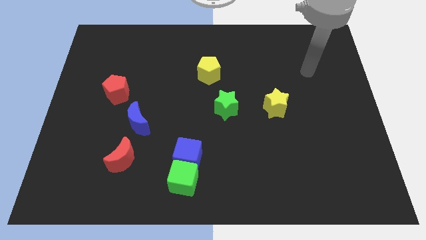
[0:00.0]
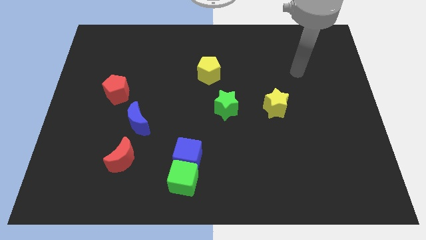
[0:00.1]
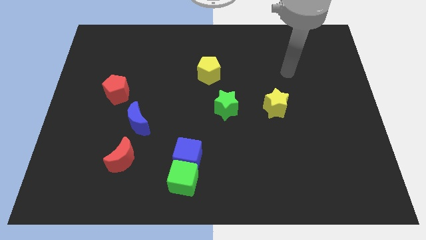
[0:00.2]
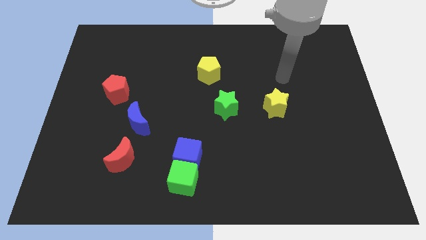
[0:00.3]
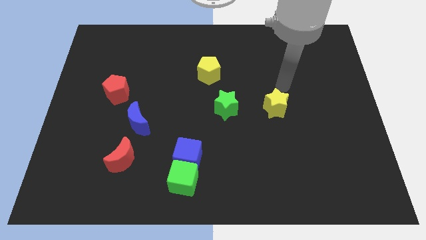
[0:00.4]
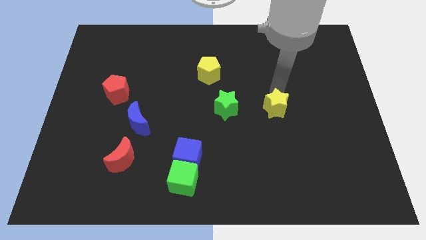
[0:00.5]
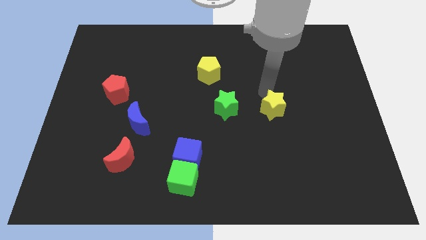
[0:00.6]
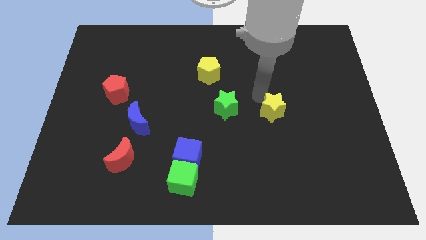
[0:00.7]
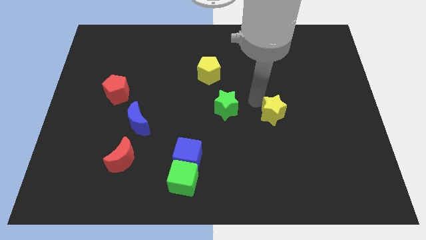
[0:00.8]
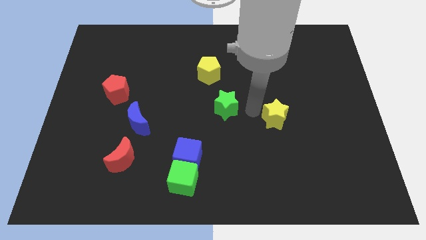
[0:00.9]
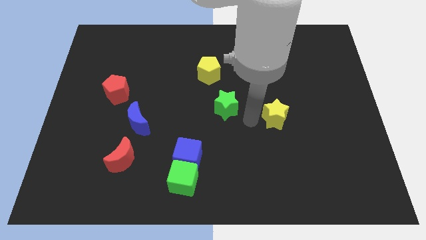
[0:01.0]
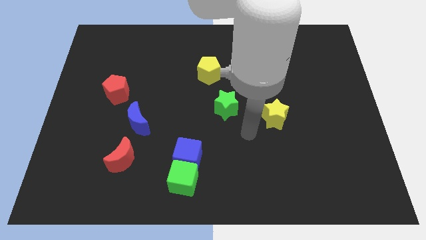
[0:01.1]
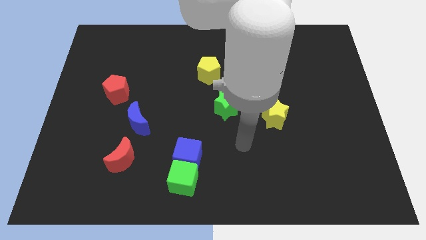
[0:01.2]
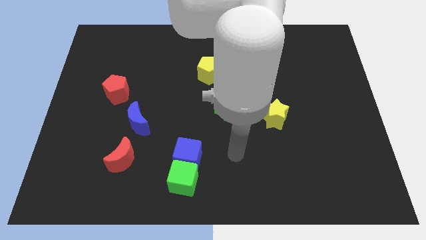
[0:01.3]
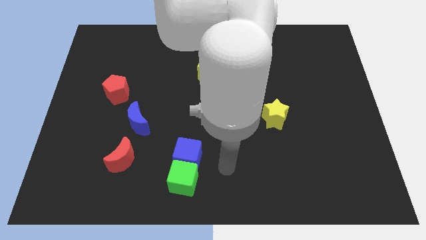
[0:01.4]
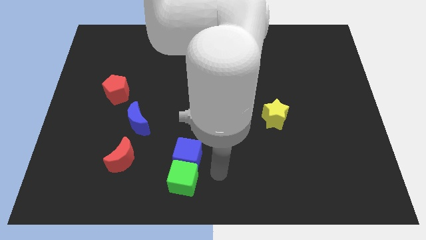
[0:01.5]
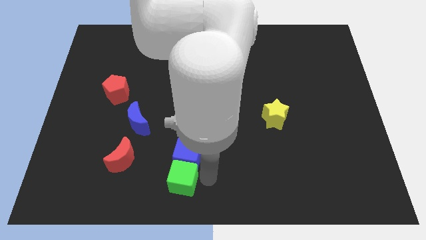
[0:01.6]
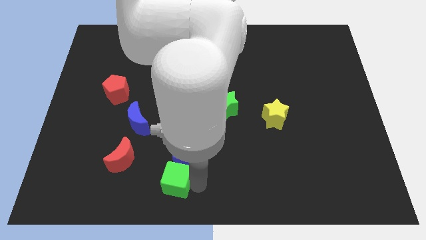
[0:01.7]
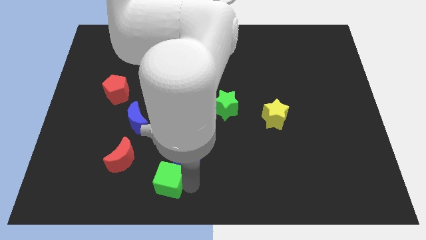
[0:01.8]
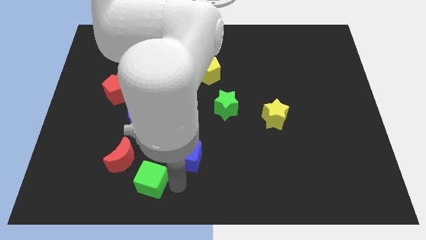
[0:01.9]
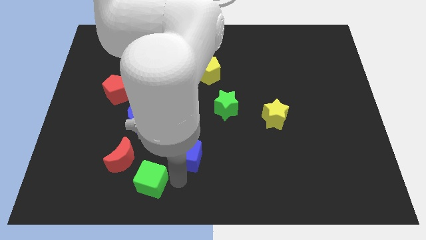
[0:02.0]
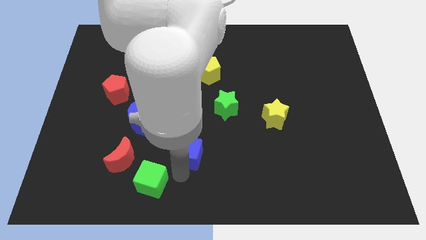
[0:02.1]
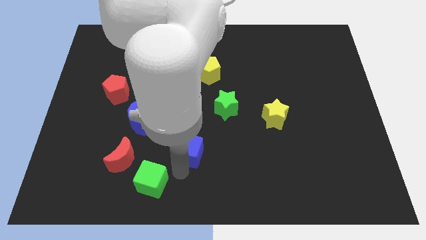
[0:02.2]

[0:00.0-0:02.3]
separate the blue cube from the green cube

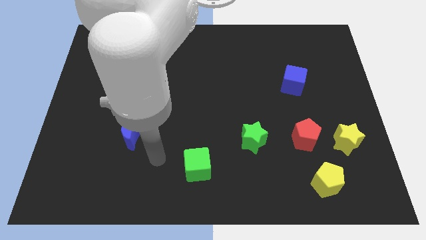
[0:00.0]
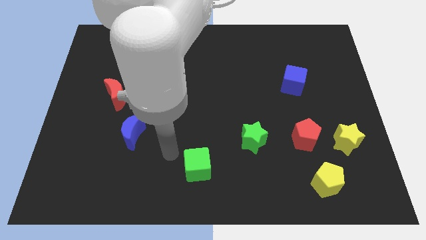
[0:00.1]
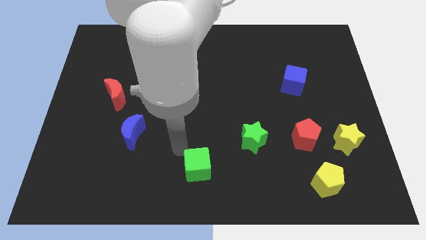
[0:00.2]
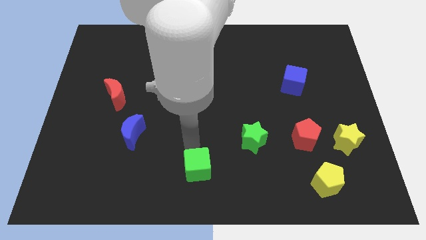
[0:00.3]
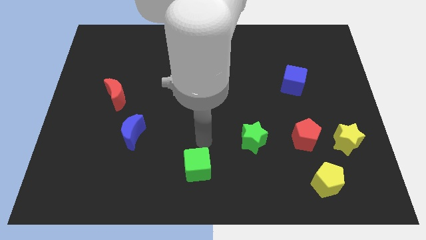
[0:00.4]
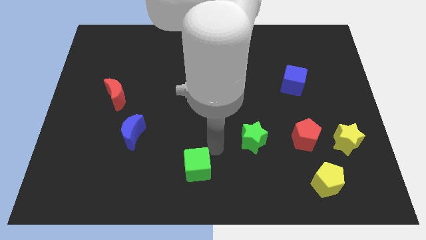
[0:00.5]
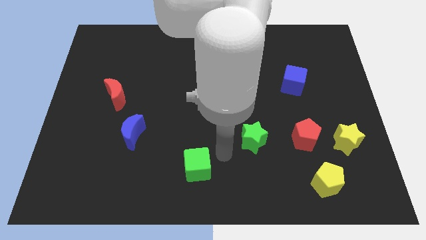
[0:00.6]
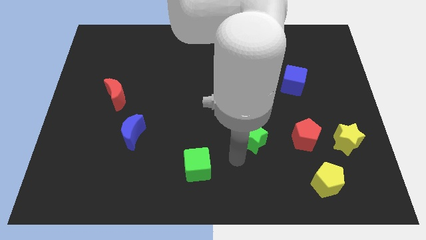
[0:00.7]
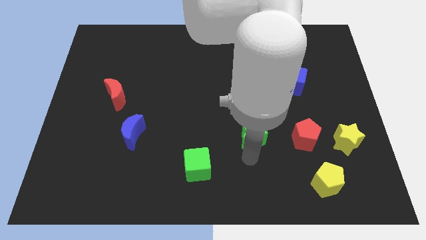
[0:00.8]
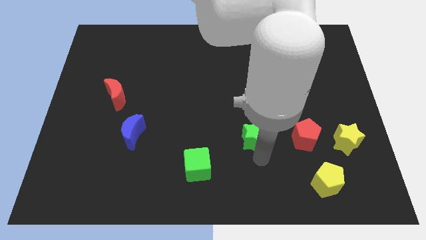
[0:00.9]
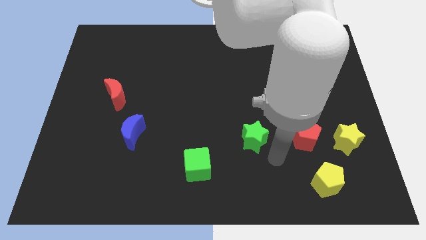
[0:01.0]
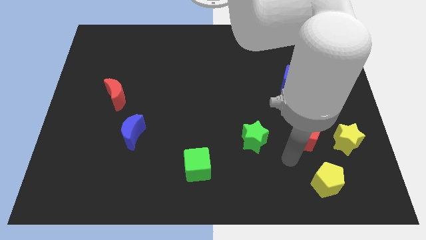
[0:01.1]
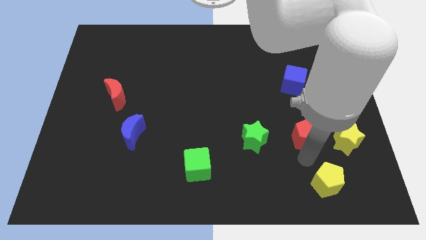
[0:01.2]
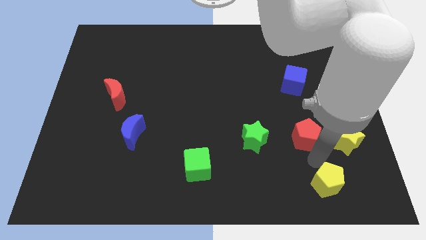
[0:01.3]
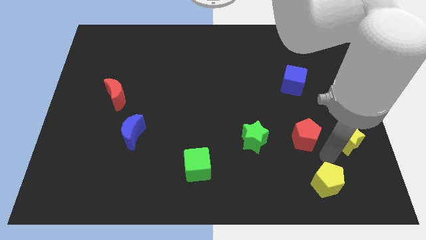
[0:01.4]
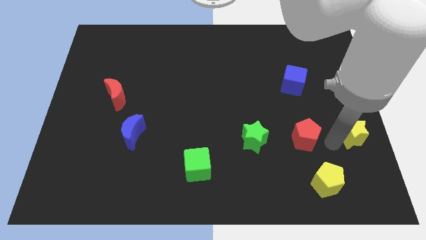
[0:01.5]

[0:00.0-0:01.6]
pull the red pentagon apart from the yellow star

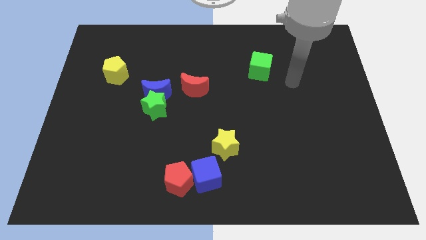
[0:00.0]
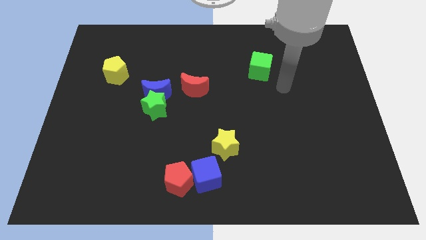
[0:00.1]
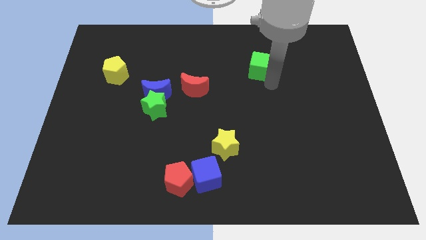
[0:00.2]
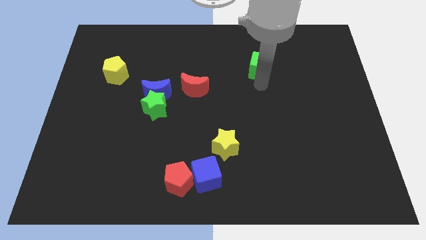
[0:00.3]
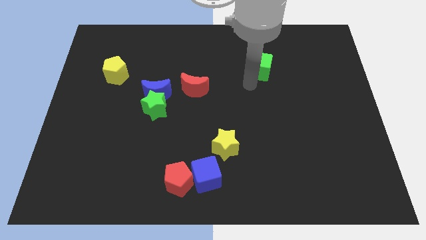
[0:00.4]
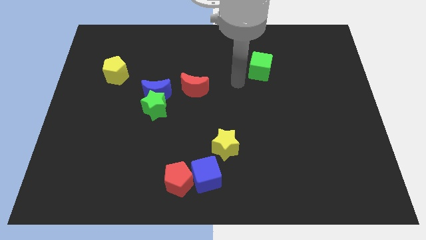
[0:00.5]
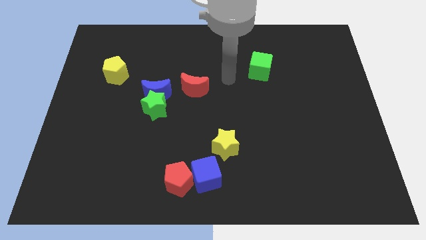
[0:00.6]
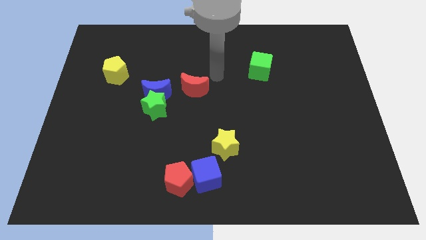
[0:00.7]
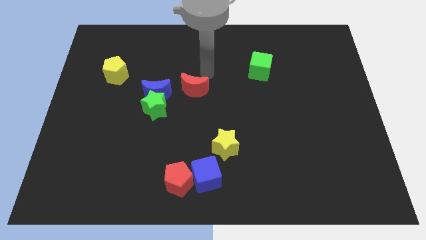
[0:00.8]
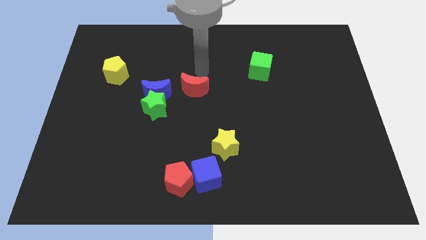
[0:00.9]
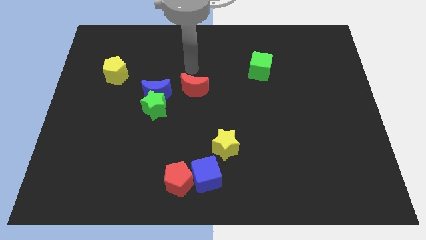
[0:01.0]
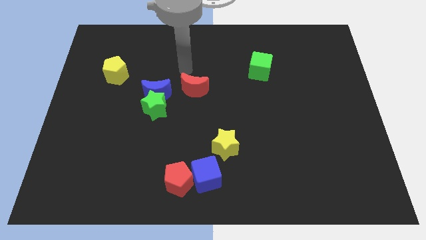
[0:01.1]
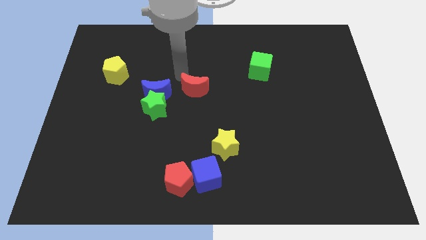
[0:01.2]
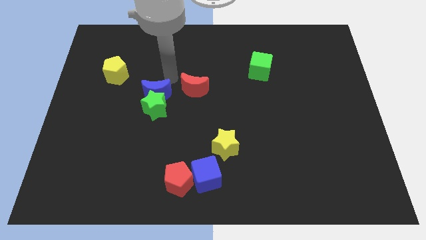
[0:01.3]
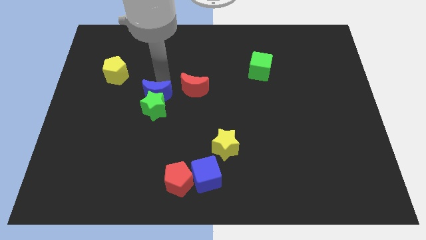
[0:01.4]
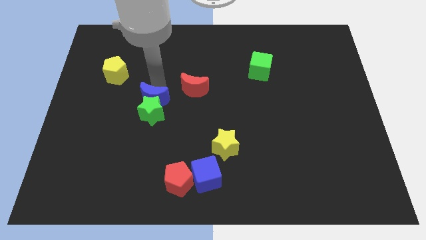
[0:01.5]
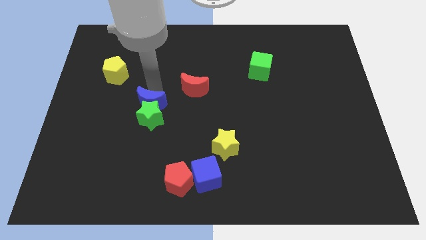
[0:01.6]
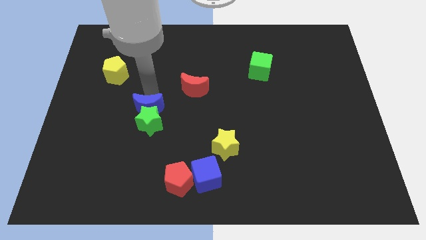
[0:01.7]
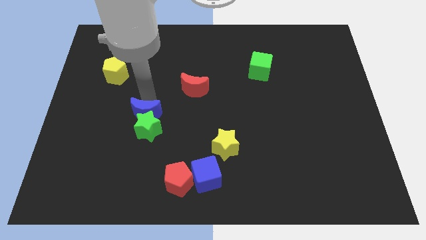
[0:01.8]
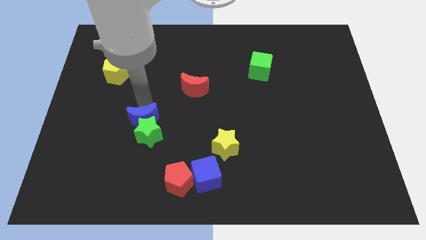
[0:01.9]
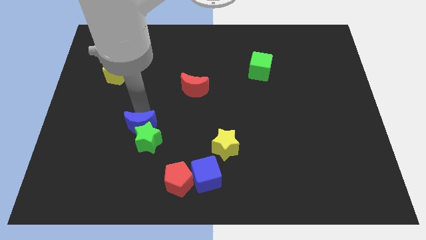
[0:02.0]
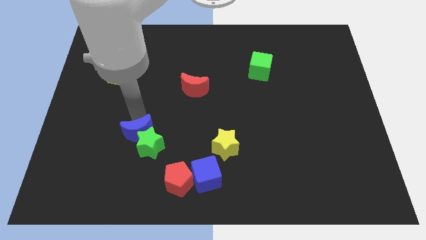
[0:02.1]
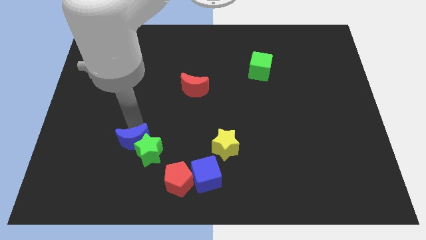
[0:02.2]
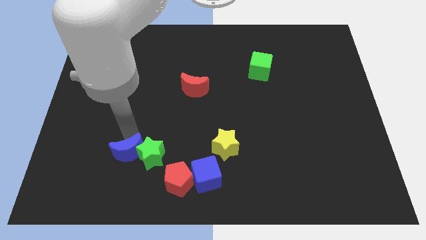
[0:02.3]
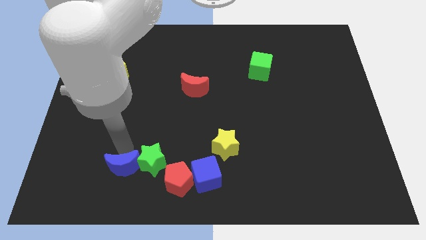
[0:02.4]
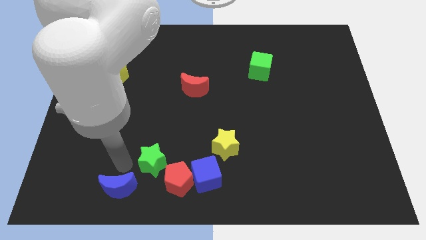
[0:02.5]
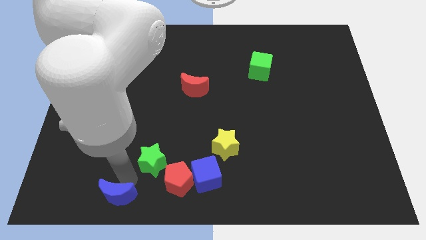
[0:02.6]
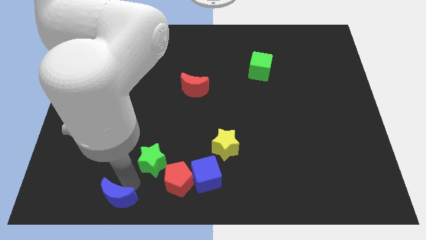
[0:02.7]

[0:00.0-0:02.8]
separate the green star from the blue moon

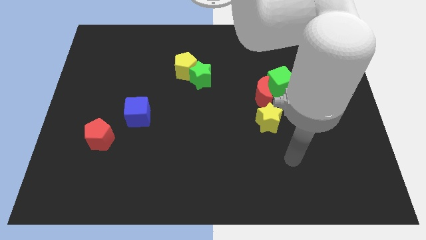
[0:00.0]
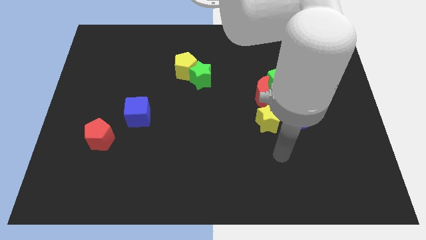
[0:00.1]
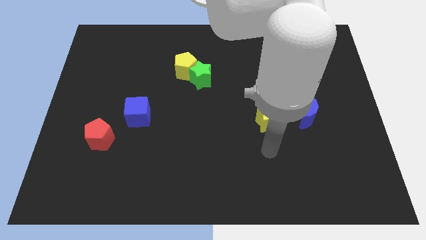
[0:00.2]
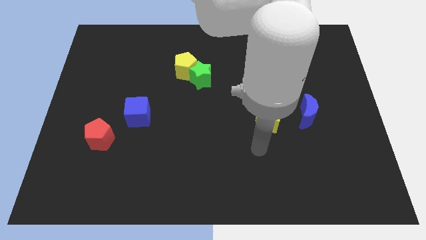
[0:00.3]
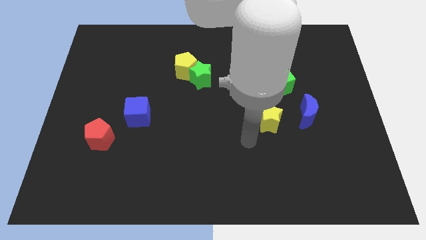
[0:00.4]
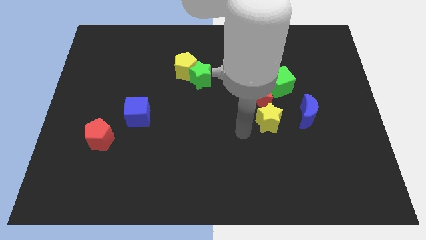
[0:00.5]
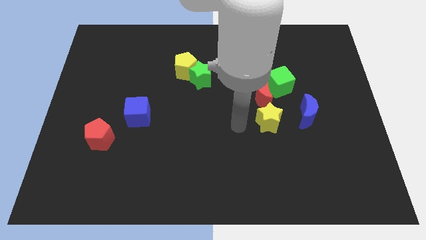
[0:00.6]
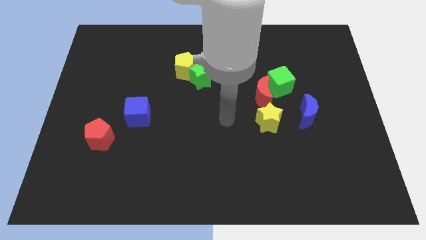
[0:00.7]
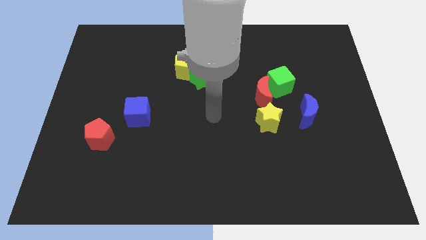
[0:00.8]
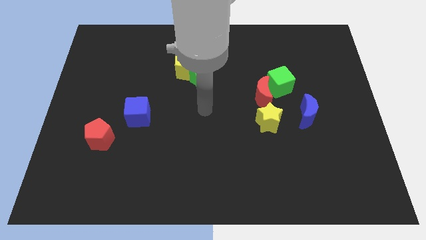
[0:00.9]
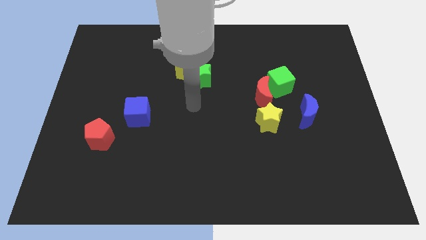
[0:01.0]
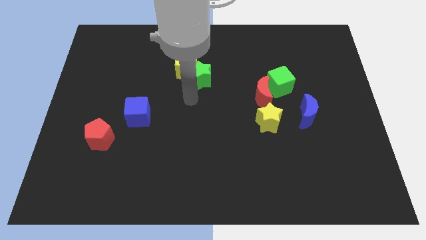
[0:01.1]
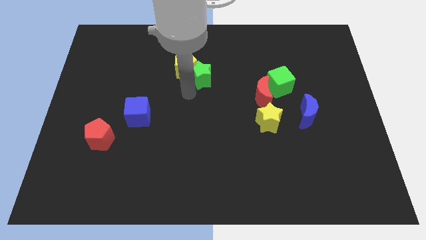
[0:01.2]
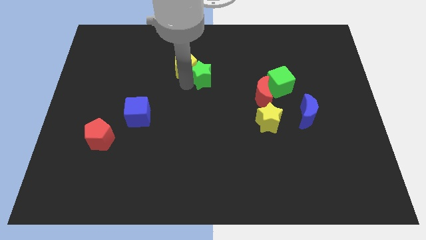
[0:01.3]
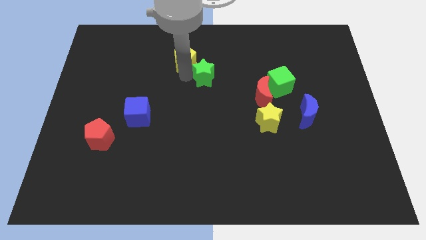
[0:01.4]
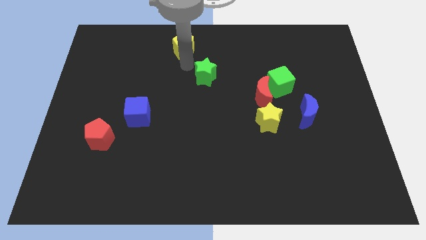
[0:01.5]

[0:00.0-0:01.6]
move the green star away from the yellow pentagon

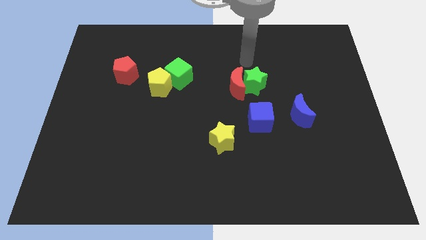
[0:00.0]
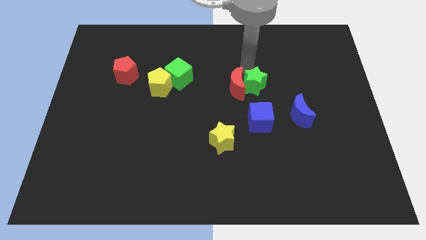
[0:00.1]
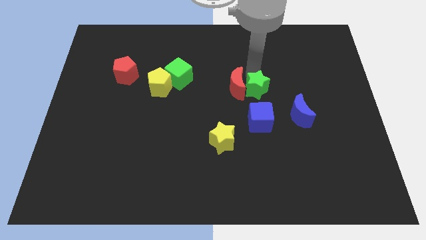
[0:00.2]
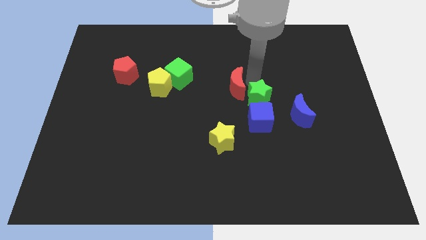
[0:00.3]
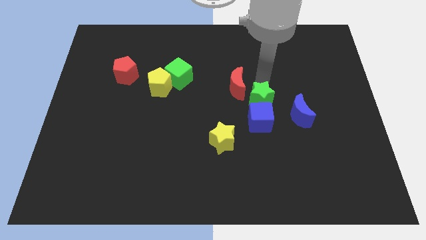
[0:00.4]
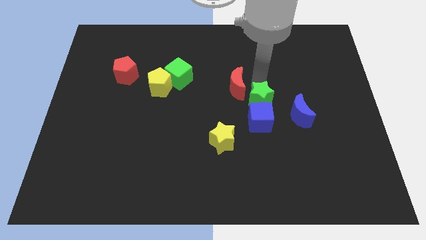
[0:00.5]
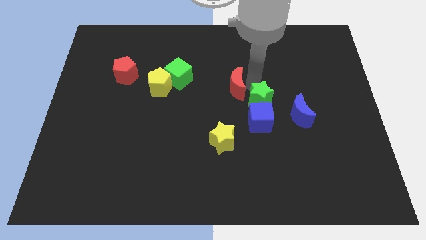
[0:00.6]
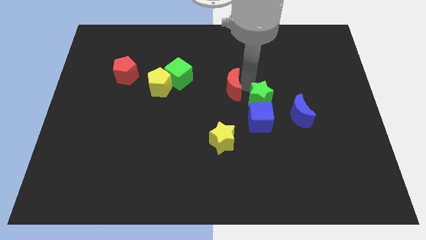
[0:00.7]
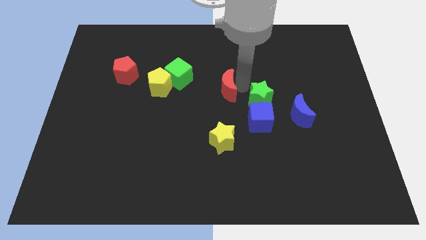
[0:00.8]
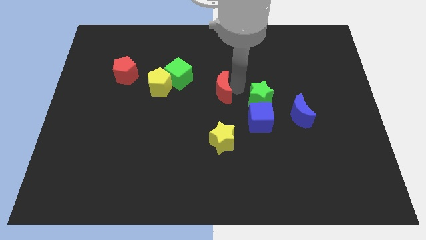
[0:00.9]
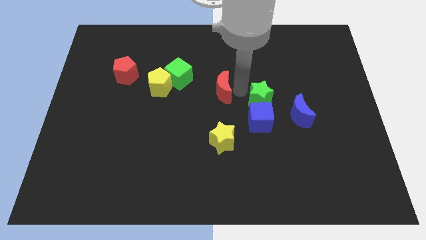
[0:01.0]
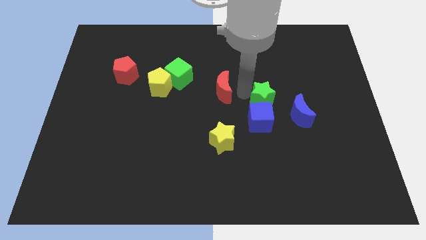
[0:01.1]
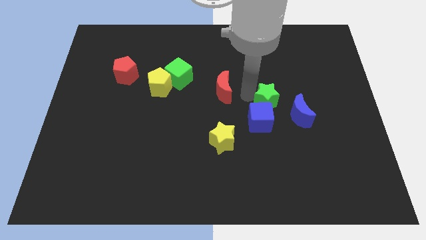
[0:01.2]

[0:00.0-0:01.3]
pull the red moon apart from the green star
